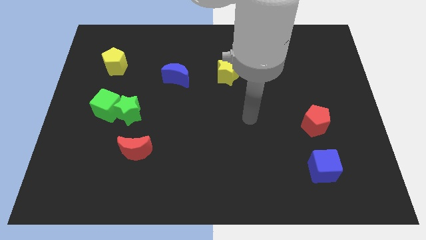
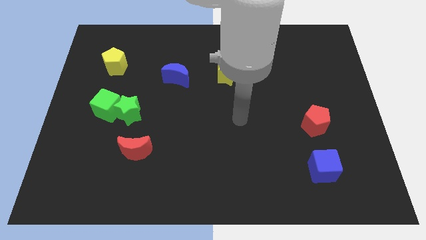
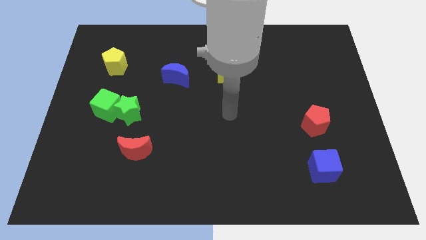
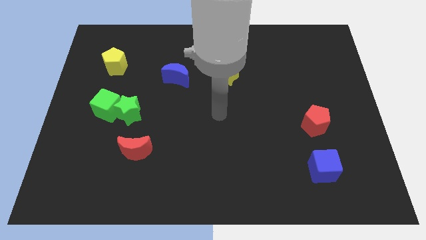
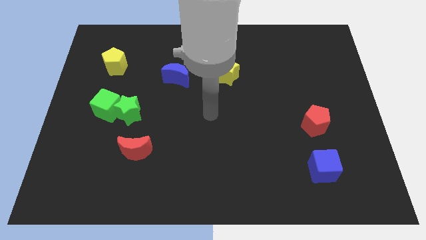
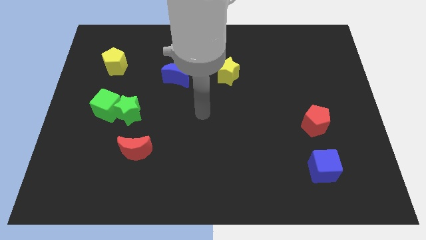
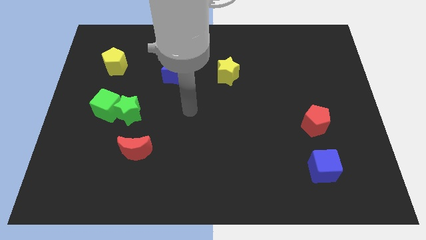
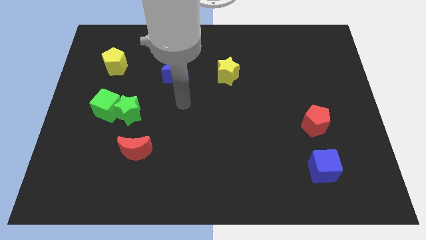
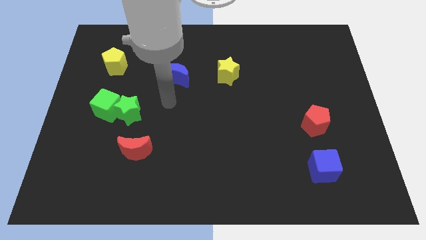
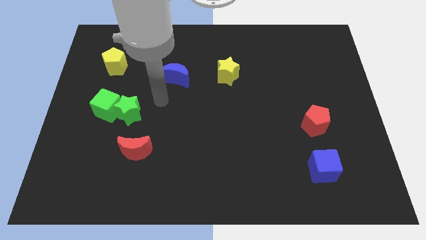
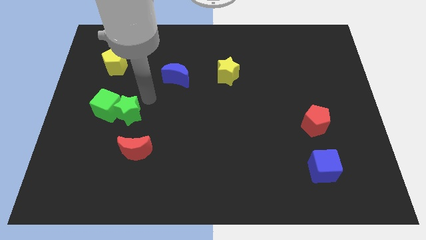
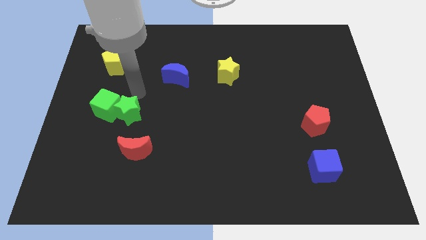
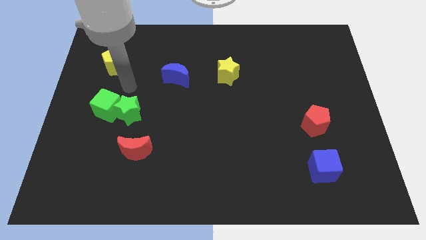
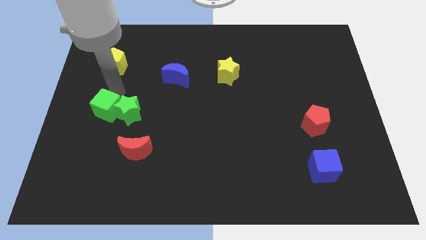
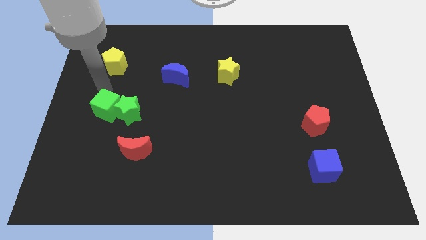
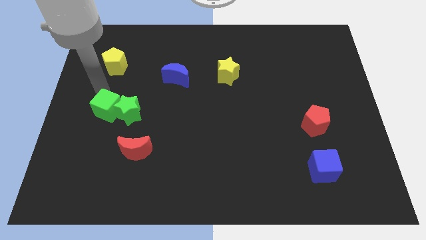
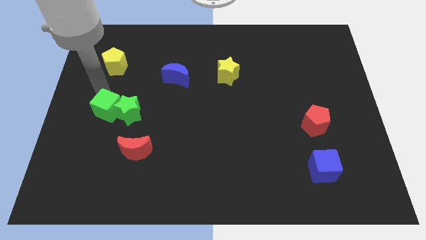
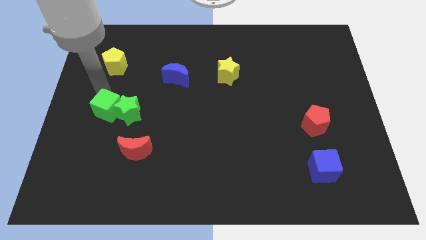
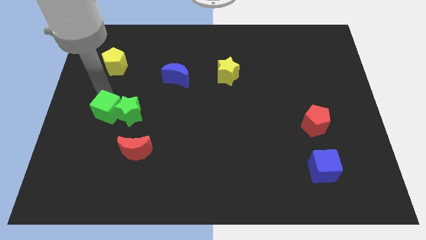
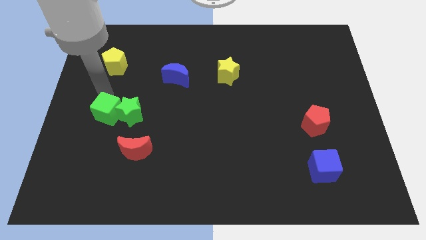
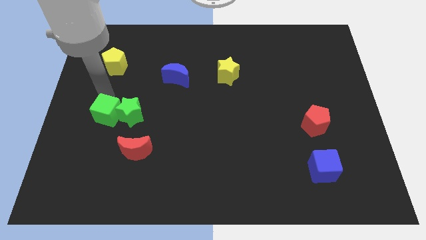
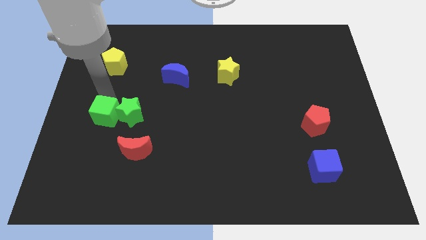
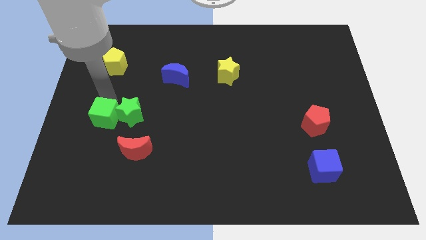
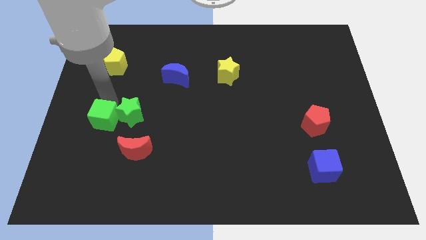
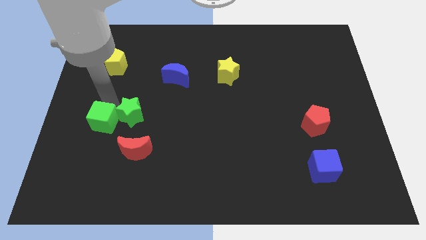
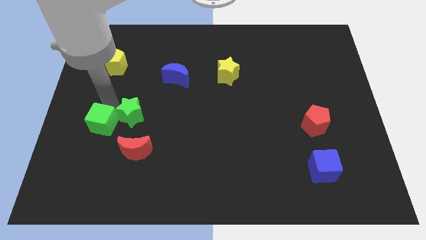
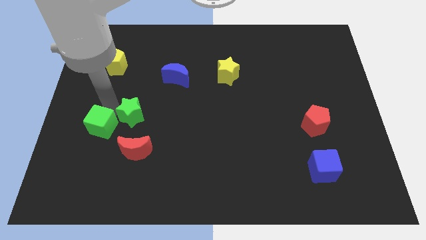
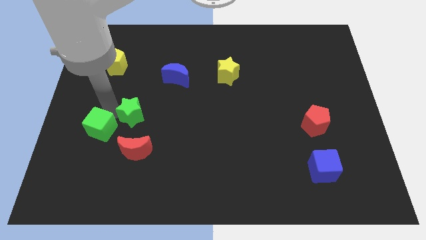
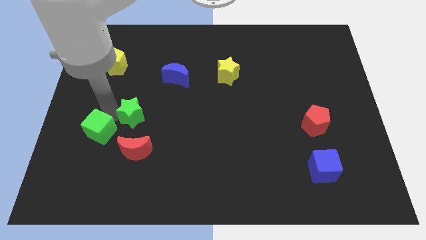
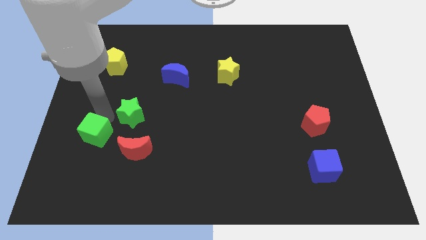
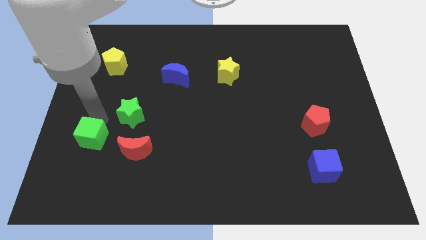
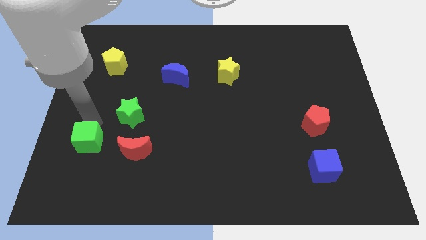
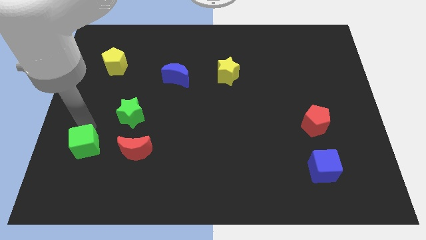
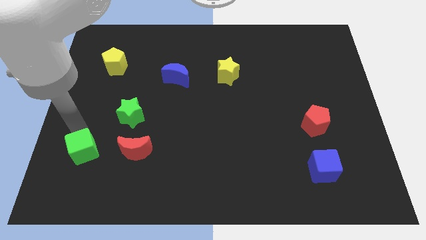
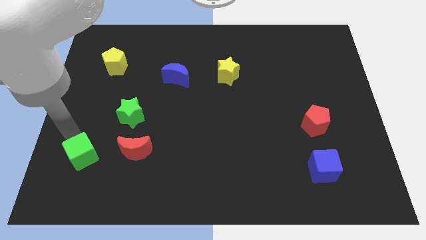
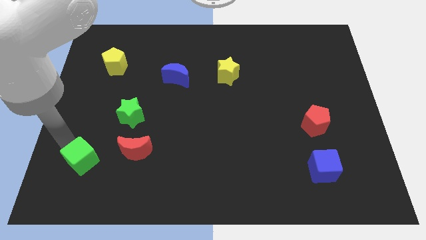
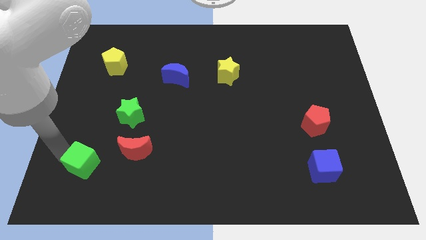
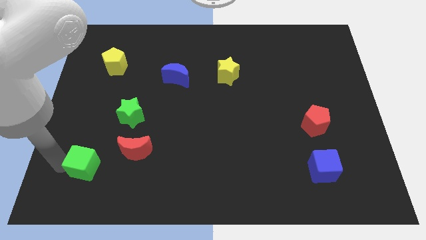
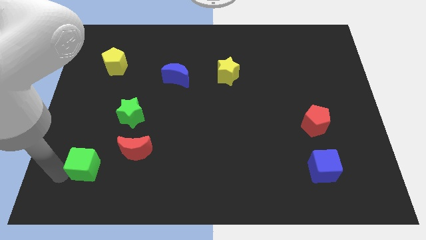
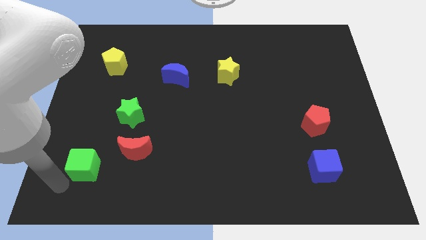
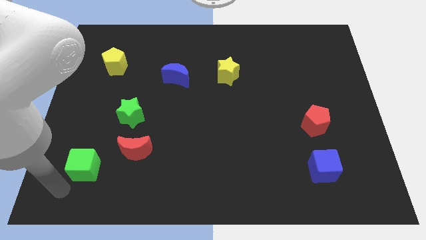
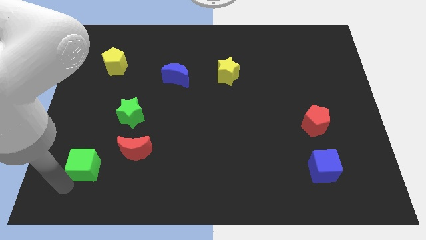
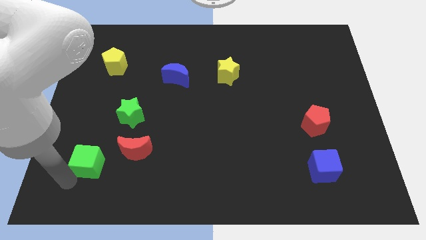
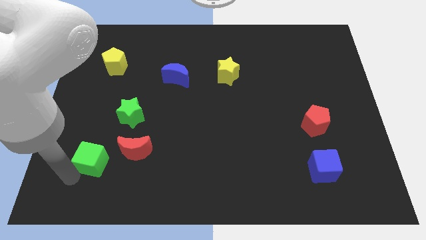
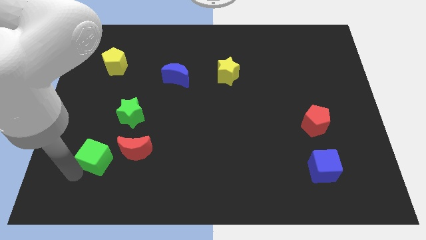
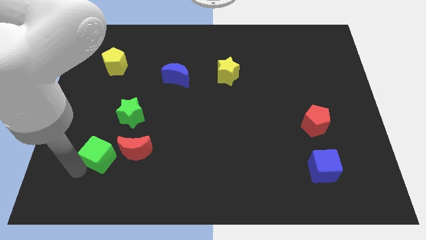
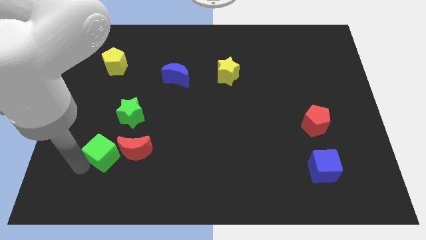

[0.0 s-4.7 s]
slide the green cube downwards and to the right diagonally a bit

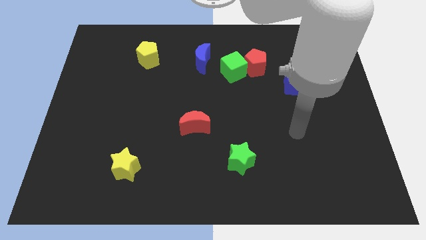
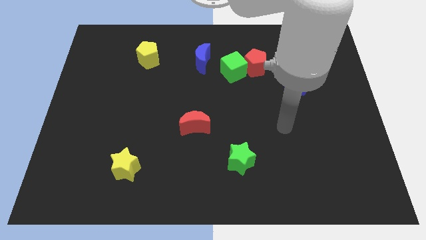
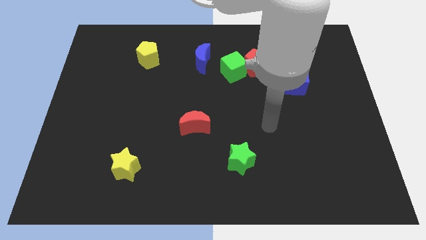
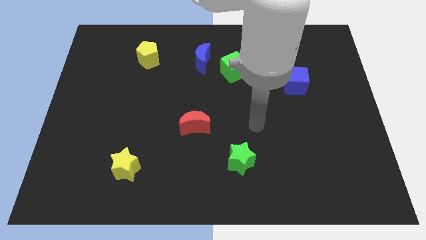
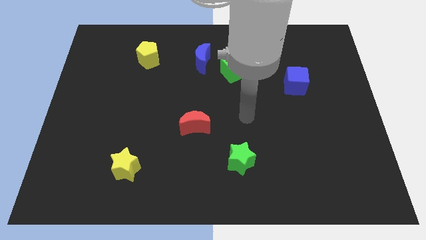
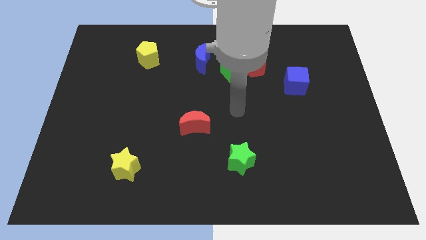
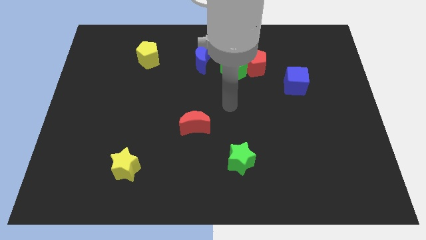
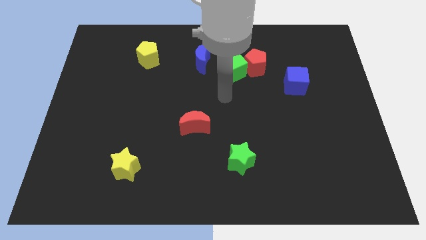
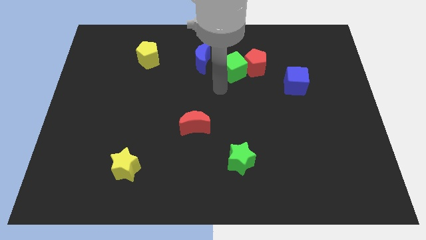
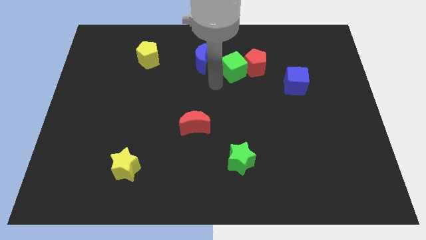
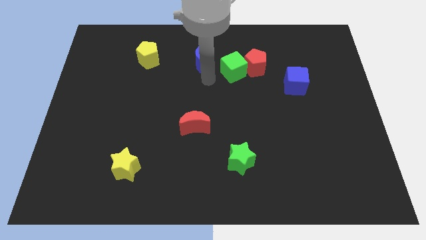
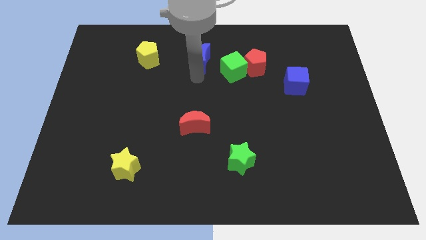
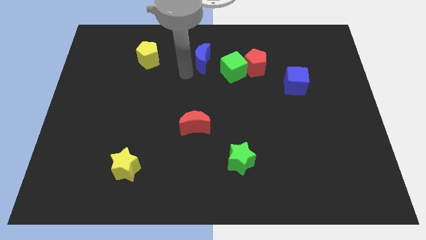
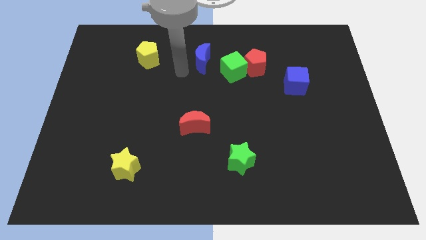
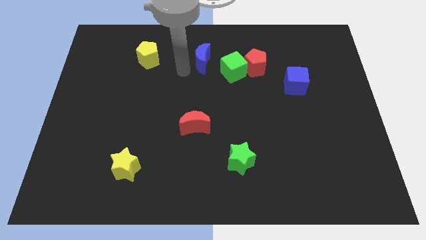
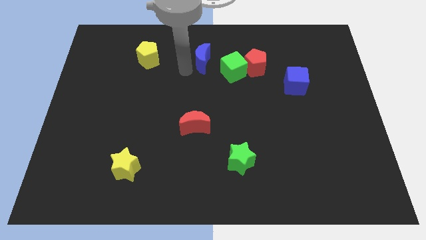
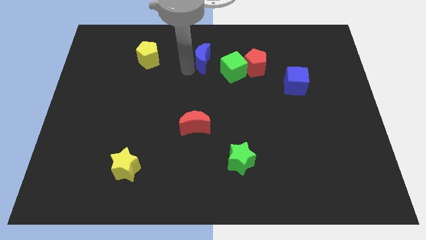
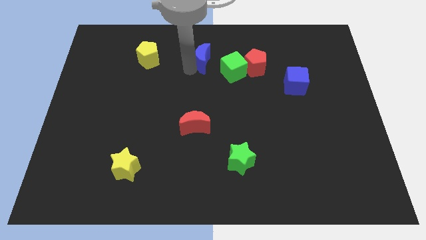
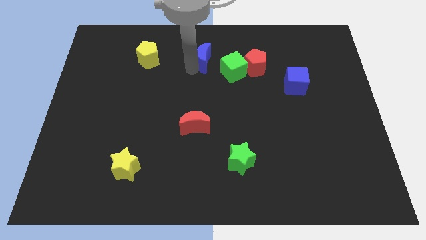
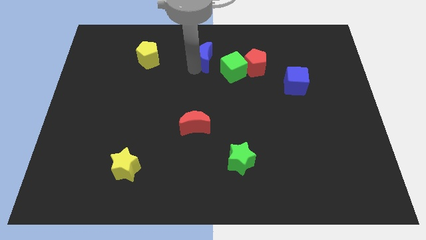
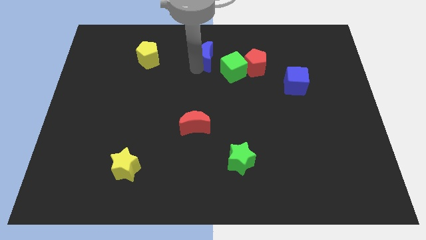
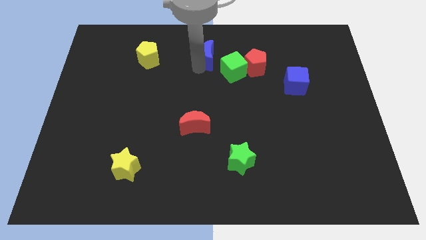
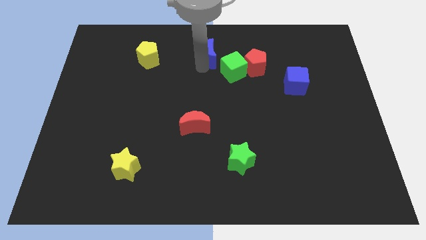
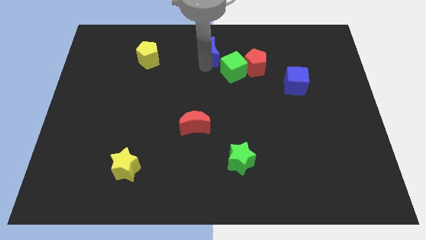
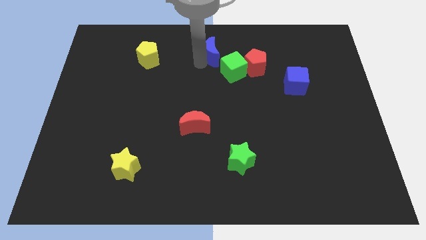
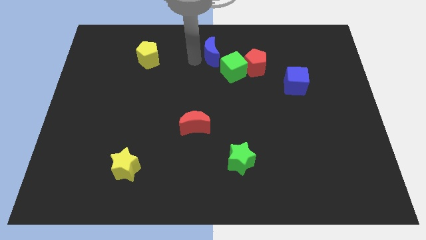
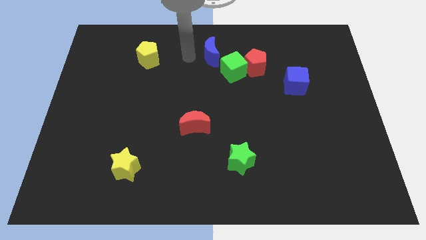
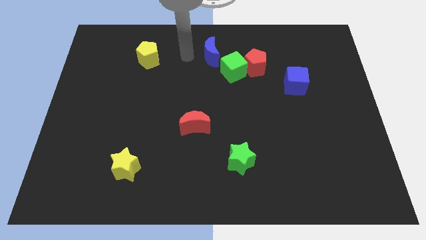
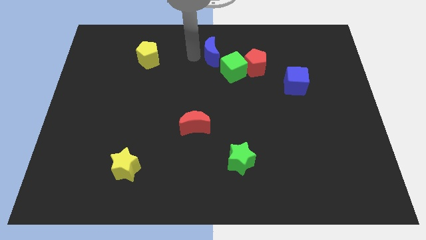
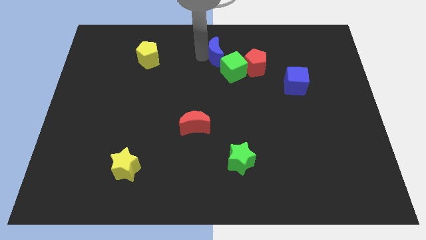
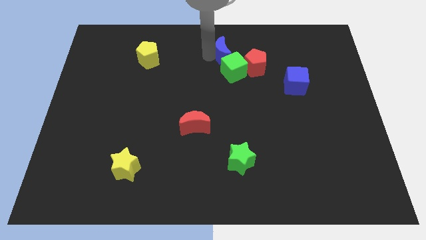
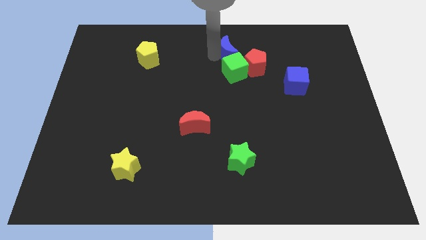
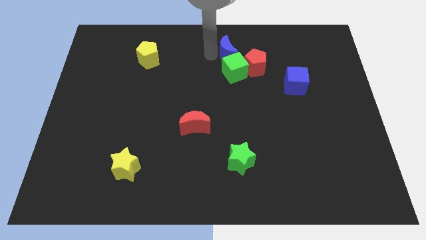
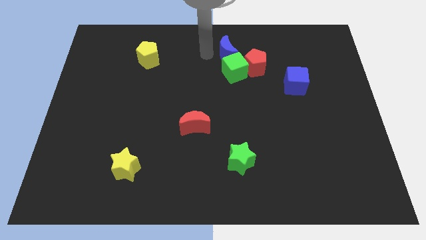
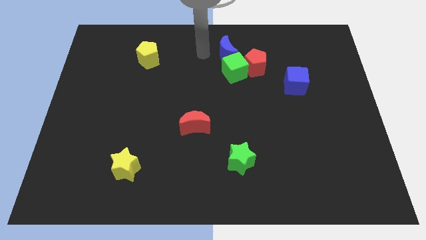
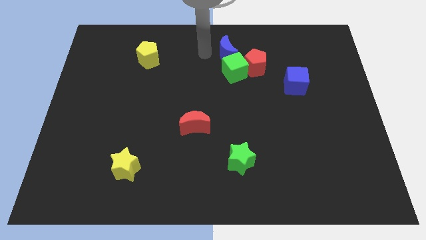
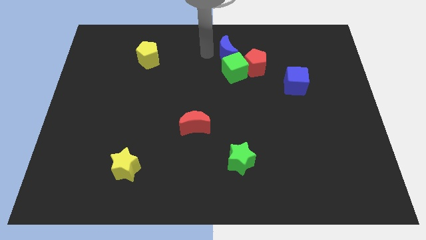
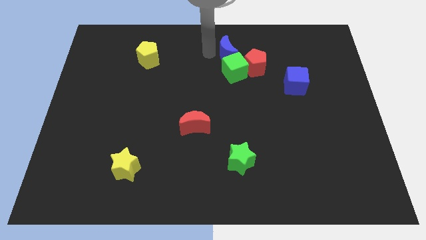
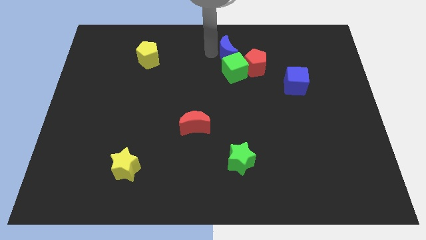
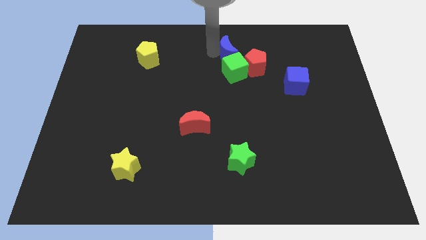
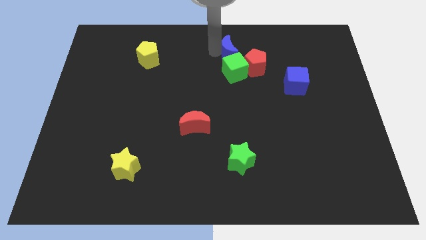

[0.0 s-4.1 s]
slightly move the blue moon to the right
